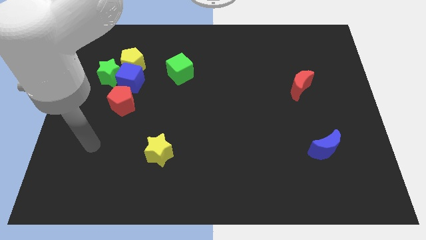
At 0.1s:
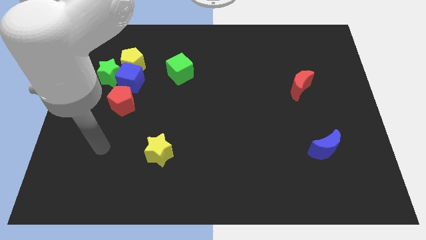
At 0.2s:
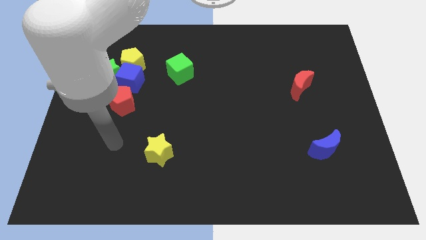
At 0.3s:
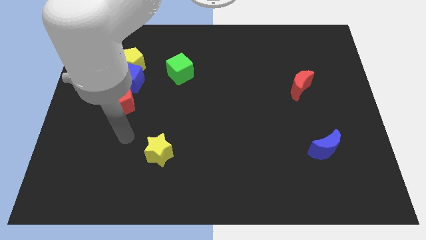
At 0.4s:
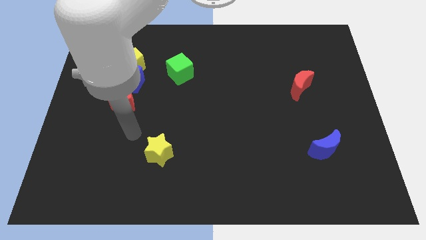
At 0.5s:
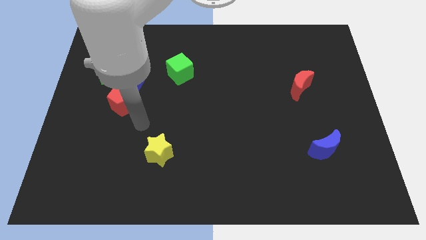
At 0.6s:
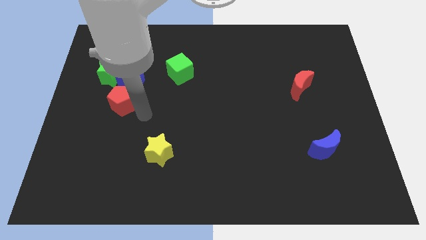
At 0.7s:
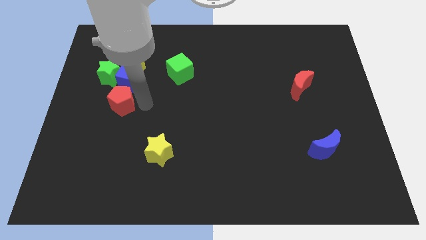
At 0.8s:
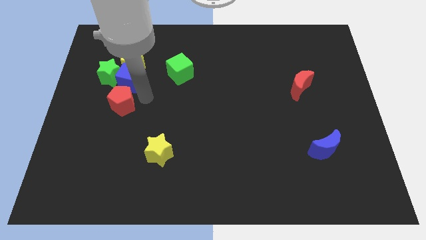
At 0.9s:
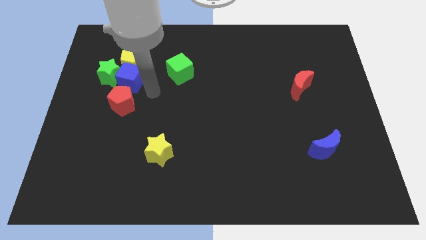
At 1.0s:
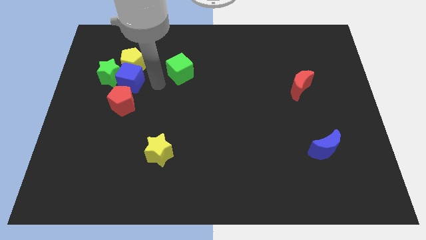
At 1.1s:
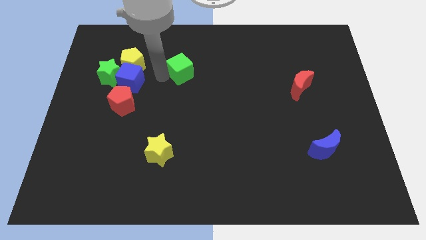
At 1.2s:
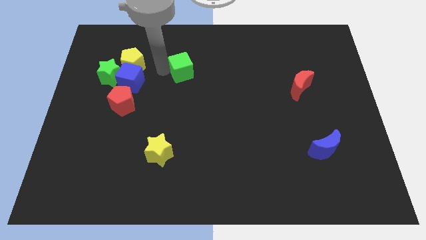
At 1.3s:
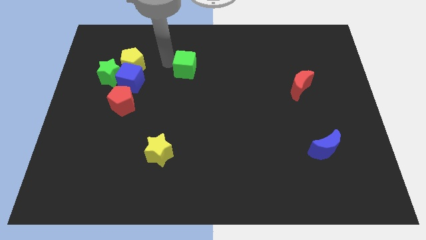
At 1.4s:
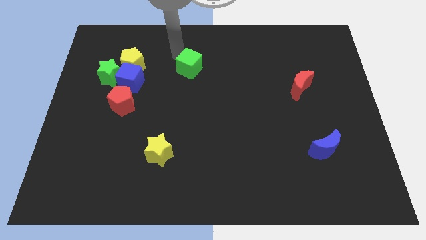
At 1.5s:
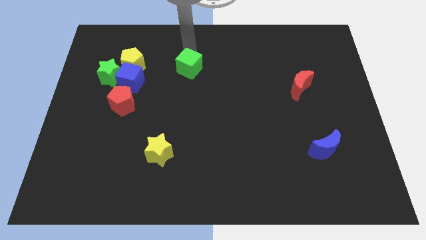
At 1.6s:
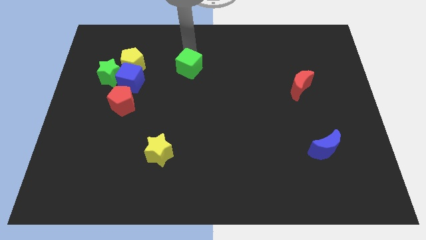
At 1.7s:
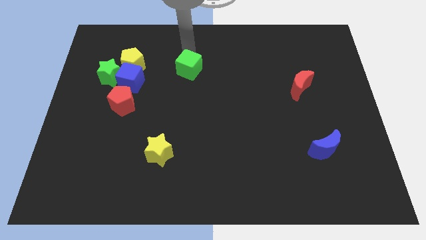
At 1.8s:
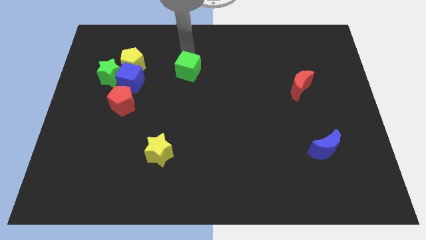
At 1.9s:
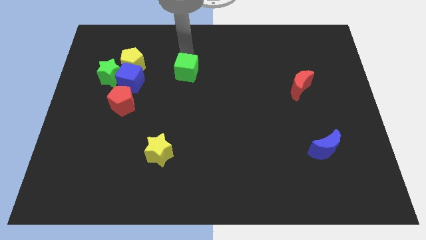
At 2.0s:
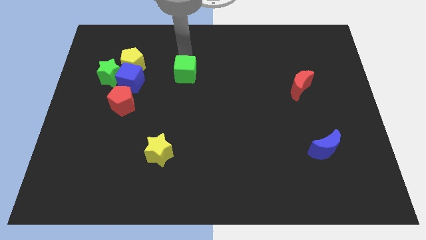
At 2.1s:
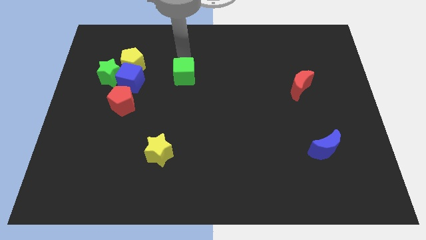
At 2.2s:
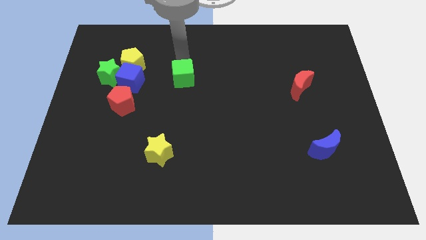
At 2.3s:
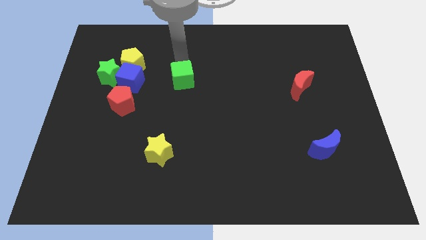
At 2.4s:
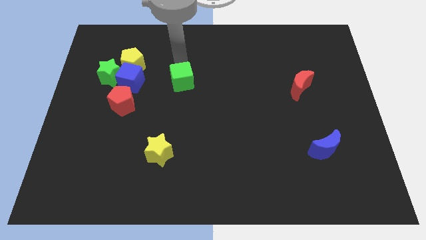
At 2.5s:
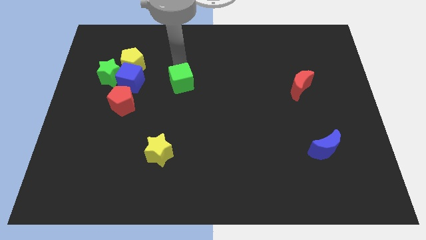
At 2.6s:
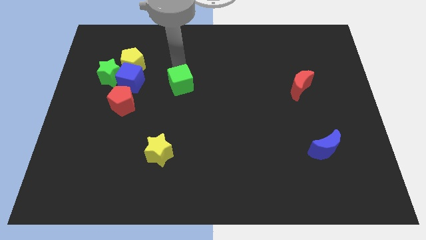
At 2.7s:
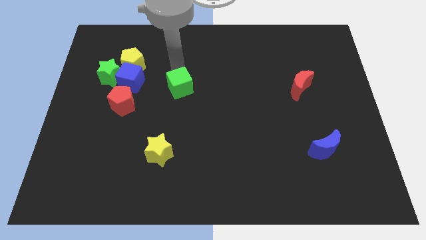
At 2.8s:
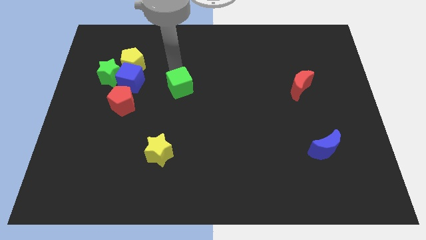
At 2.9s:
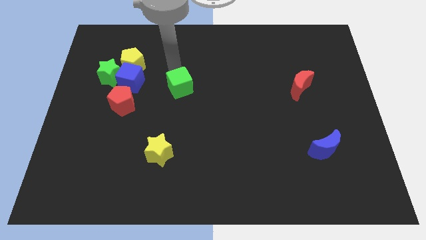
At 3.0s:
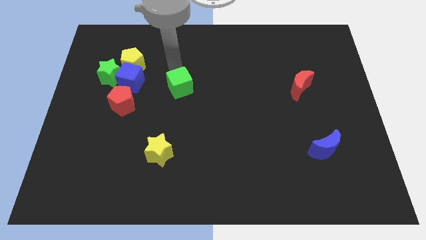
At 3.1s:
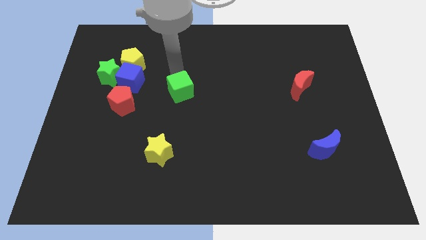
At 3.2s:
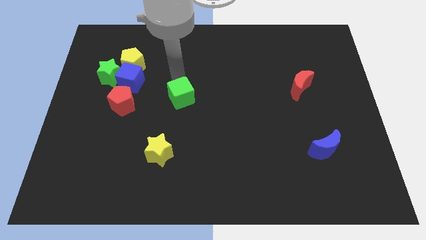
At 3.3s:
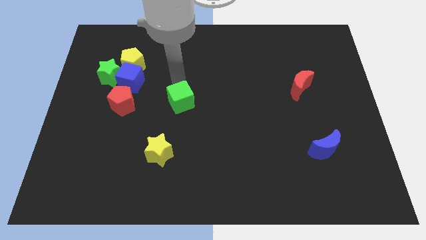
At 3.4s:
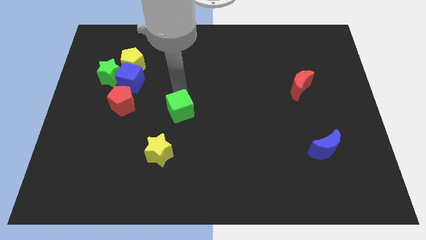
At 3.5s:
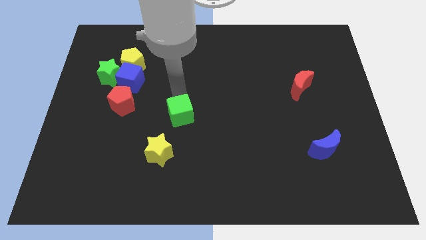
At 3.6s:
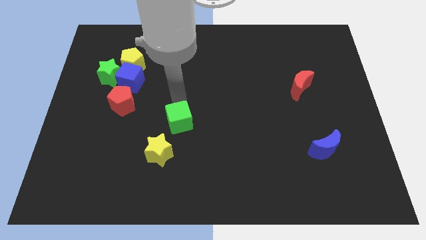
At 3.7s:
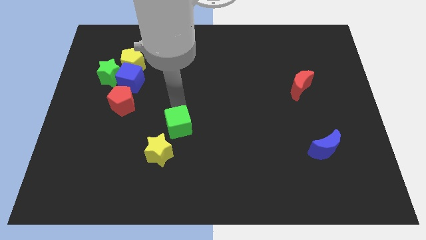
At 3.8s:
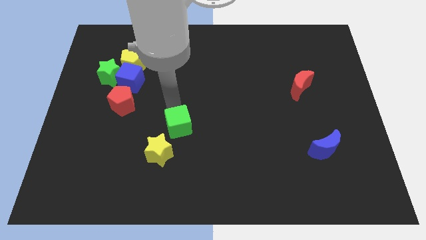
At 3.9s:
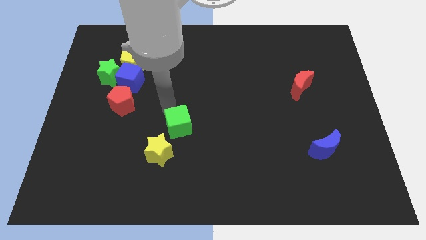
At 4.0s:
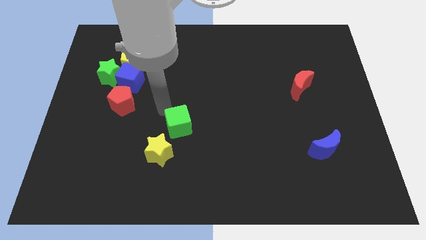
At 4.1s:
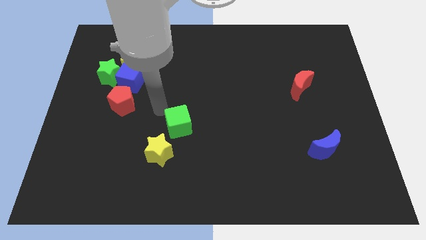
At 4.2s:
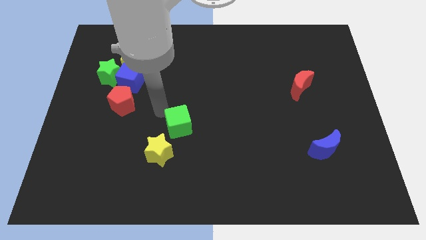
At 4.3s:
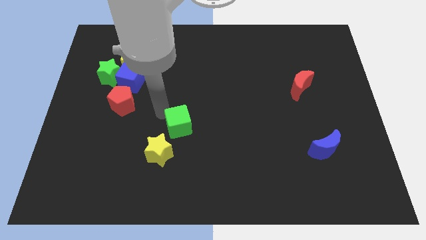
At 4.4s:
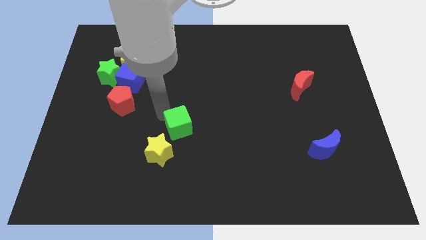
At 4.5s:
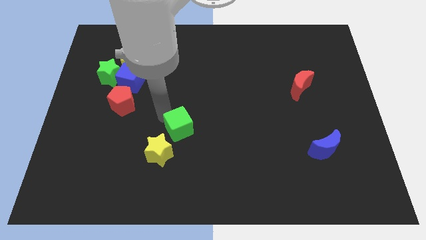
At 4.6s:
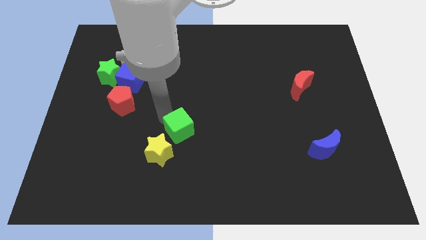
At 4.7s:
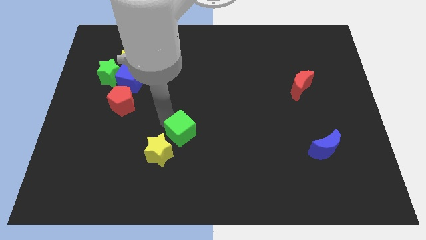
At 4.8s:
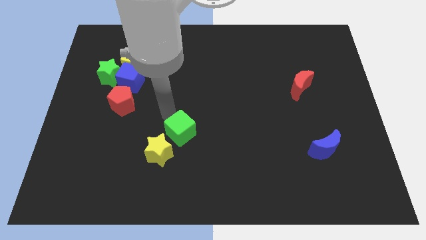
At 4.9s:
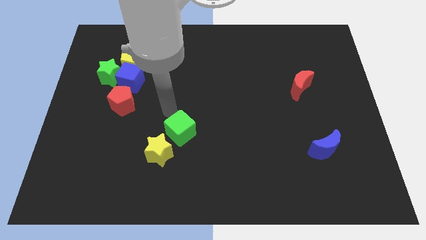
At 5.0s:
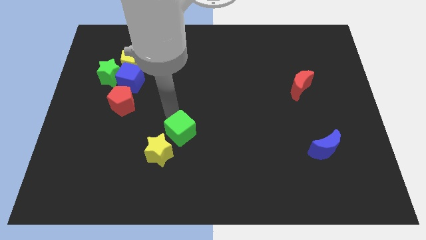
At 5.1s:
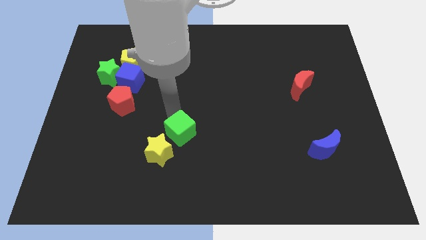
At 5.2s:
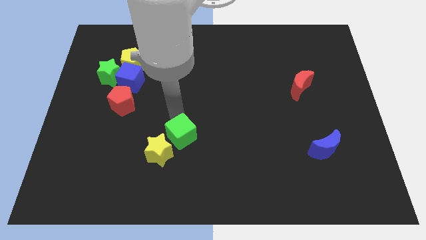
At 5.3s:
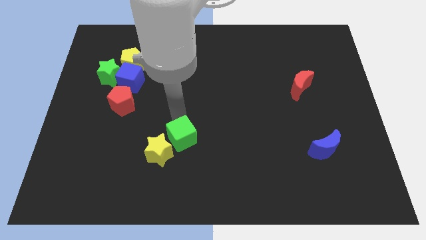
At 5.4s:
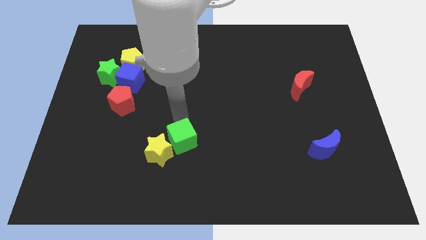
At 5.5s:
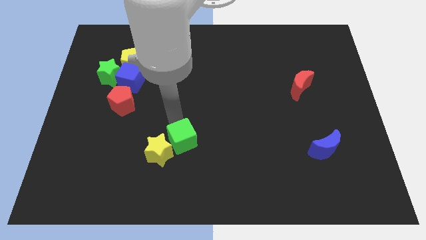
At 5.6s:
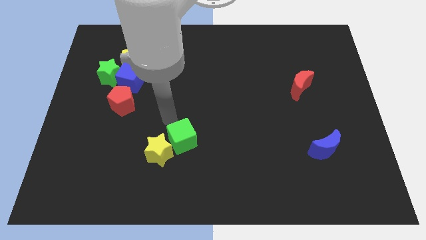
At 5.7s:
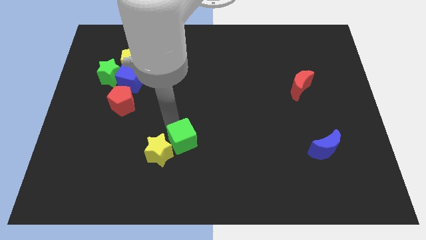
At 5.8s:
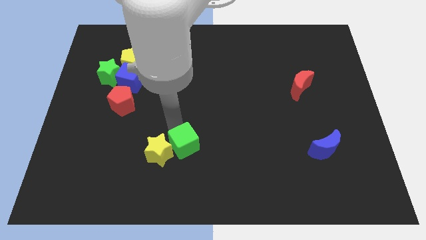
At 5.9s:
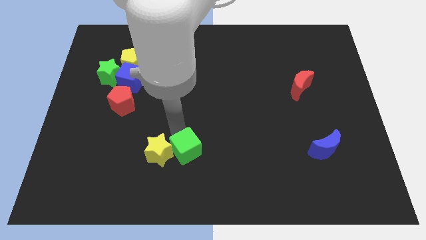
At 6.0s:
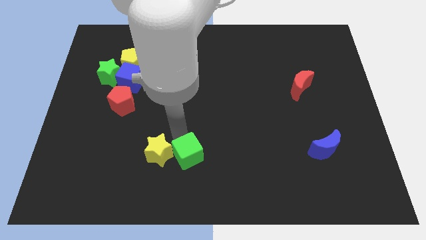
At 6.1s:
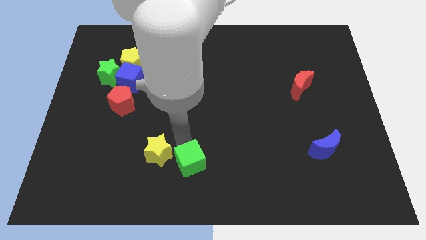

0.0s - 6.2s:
slide the green cube to the bottom

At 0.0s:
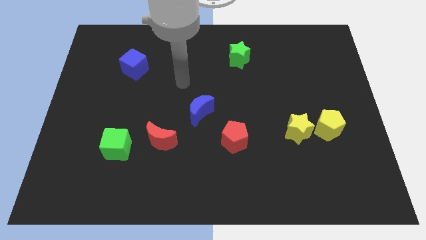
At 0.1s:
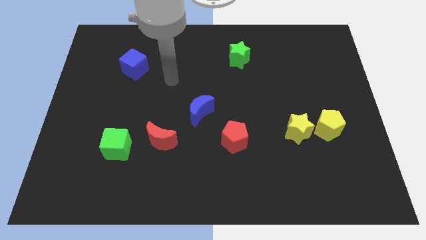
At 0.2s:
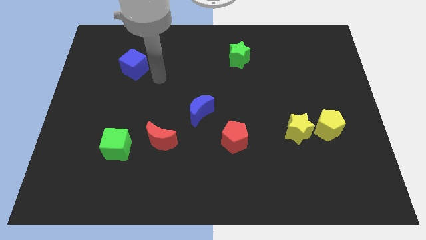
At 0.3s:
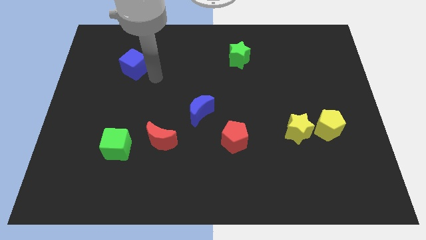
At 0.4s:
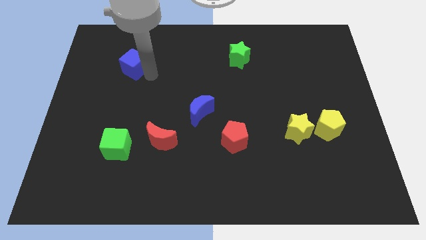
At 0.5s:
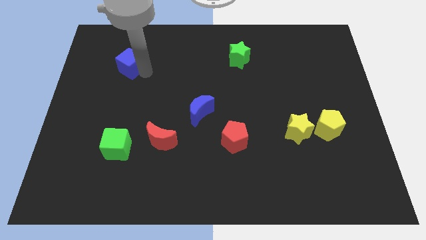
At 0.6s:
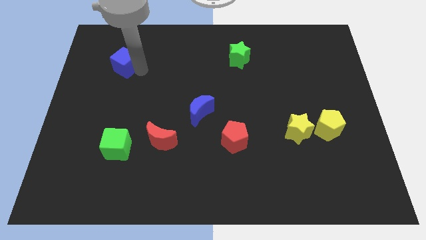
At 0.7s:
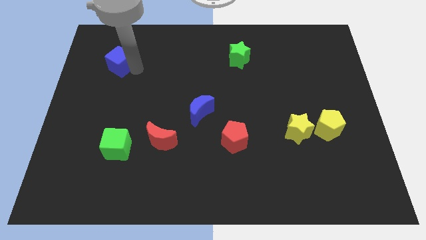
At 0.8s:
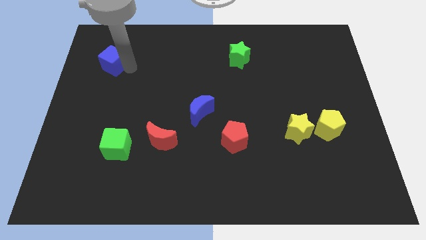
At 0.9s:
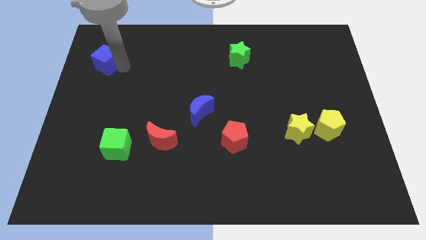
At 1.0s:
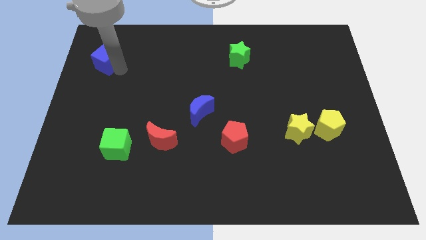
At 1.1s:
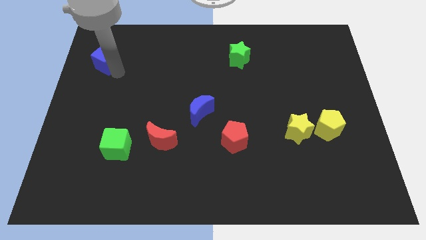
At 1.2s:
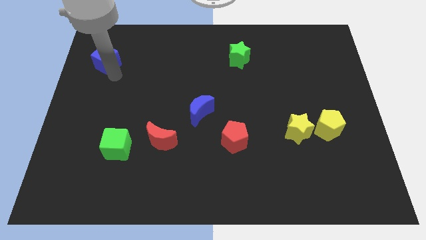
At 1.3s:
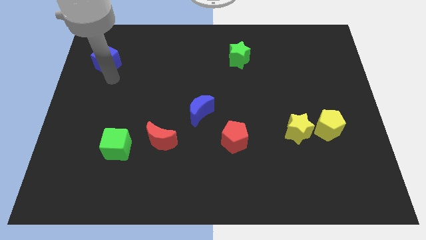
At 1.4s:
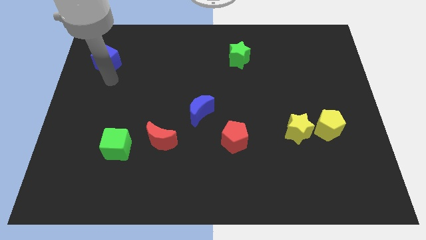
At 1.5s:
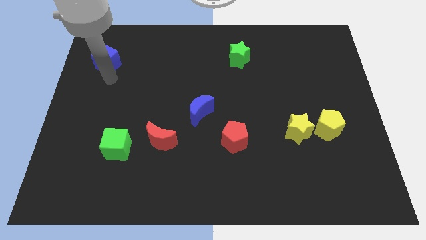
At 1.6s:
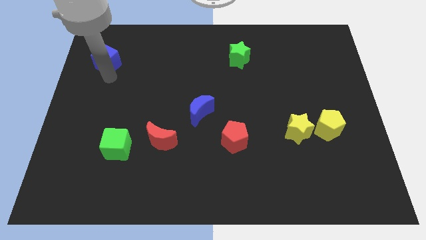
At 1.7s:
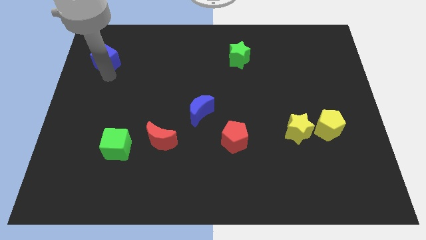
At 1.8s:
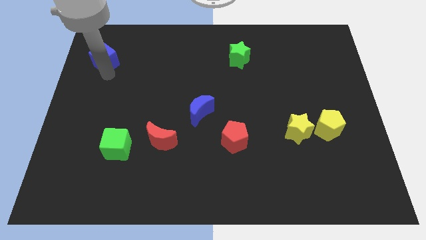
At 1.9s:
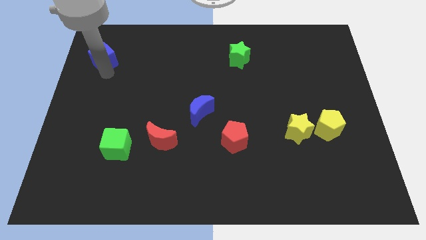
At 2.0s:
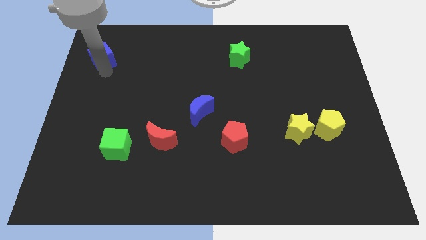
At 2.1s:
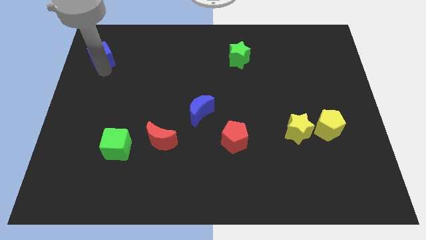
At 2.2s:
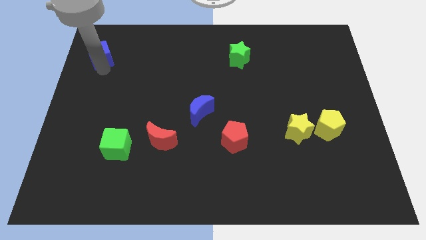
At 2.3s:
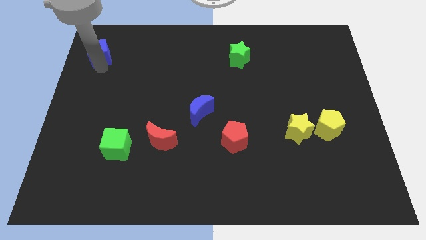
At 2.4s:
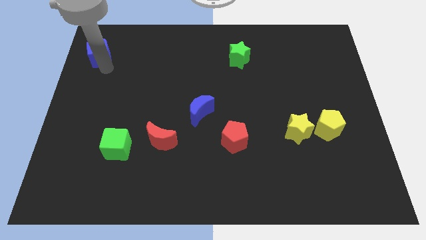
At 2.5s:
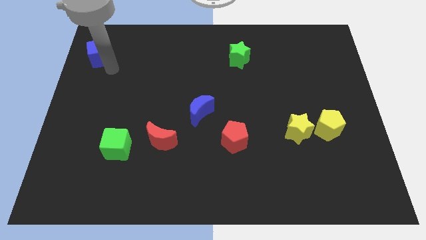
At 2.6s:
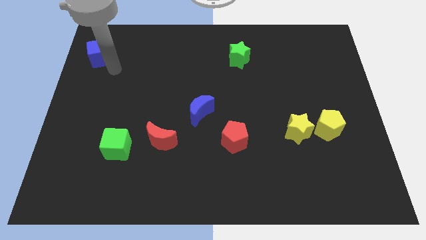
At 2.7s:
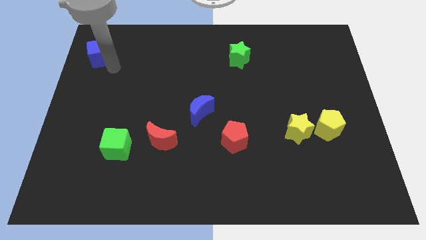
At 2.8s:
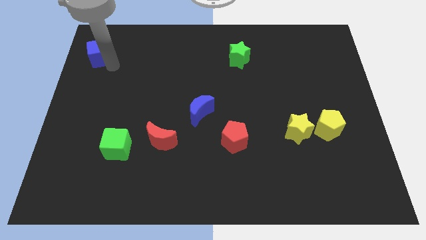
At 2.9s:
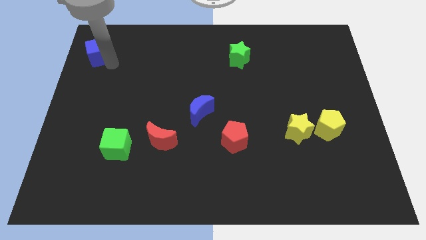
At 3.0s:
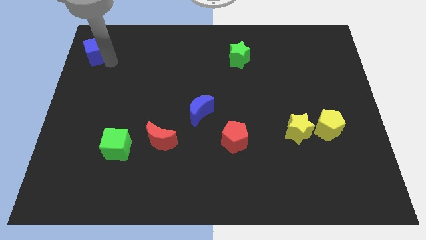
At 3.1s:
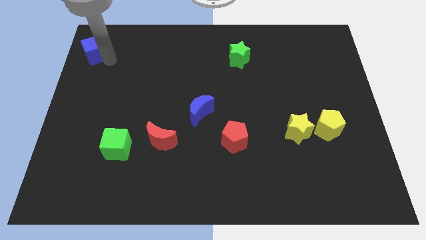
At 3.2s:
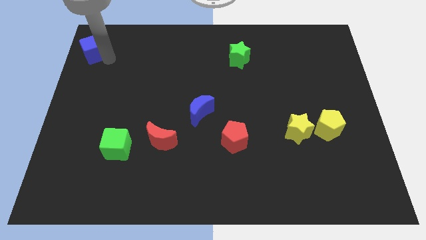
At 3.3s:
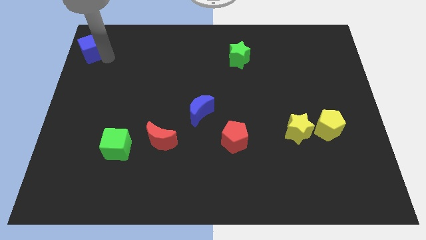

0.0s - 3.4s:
put the blue cube to the top left
